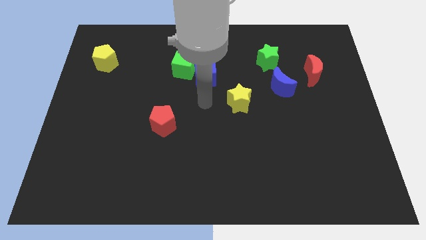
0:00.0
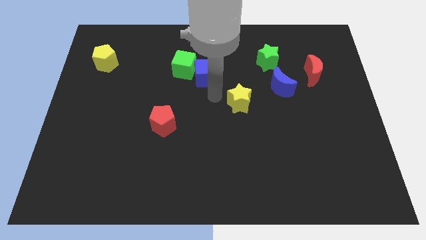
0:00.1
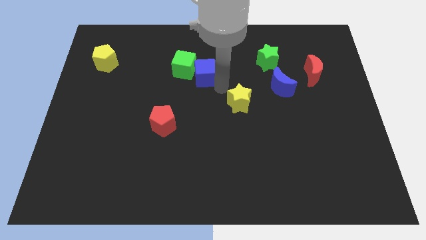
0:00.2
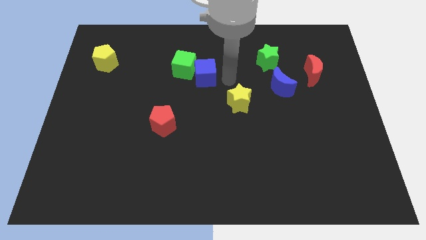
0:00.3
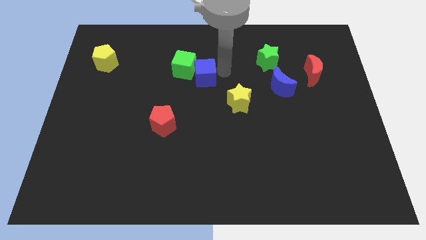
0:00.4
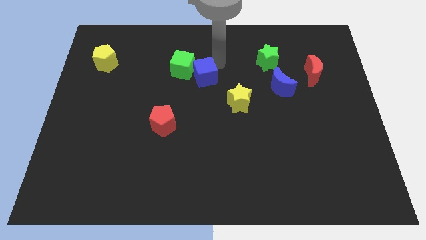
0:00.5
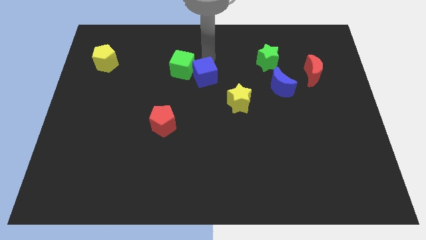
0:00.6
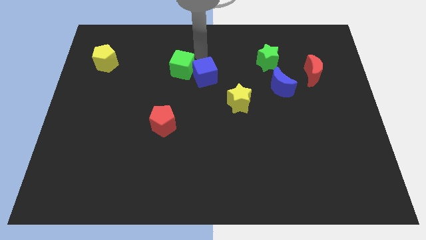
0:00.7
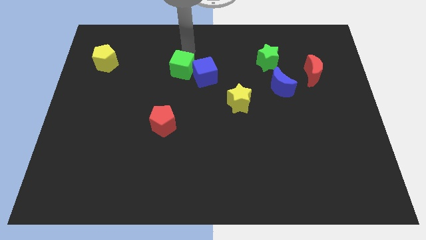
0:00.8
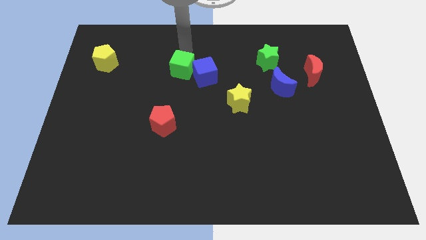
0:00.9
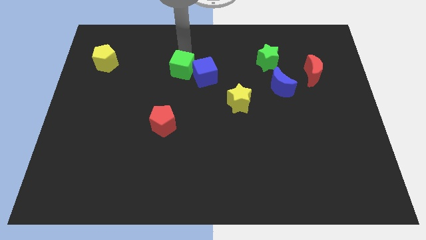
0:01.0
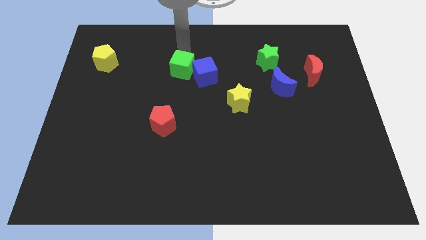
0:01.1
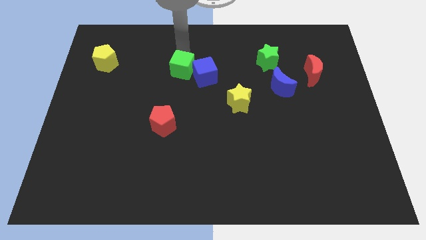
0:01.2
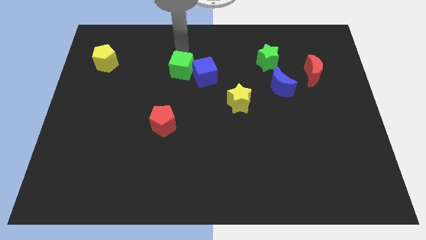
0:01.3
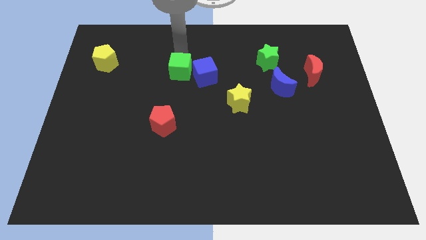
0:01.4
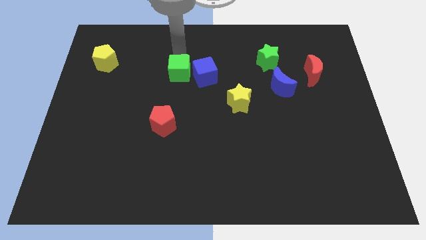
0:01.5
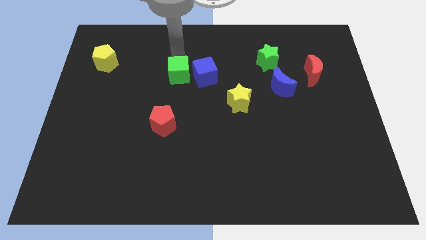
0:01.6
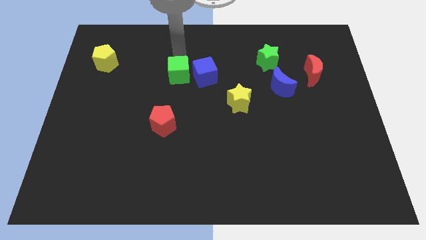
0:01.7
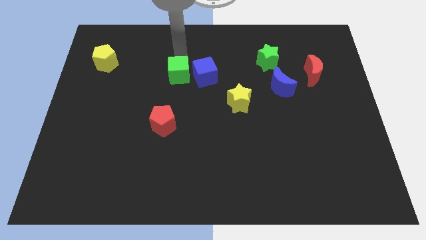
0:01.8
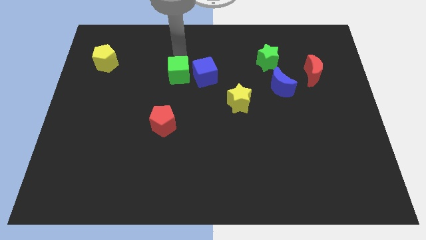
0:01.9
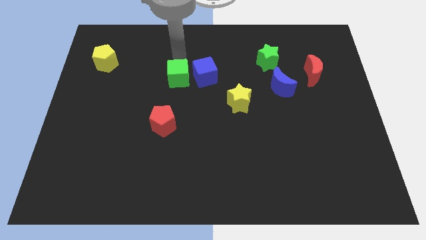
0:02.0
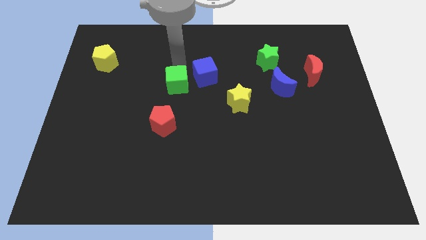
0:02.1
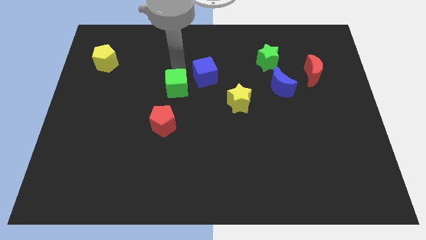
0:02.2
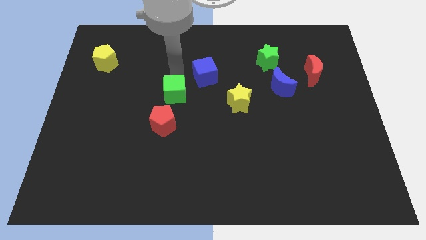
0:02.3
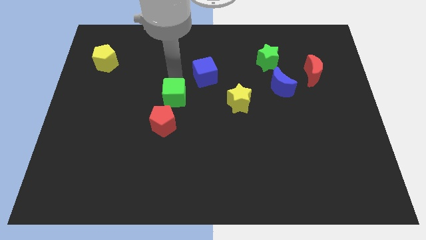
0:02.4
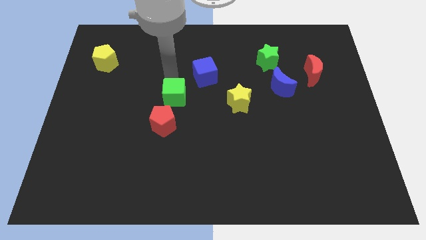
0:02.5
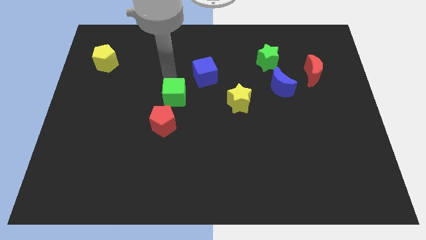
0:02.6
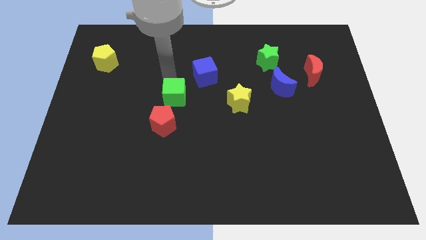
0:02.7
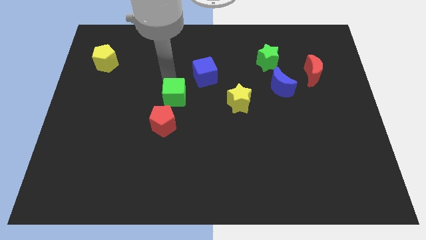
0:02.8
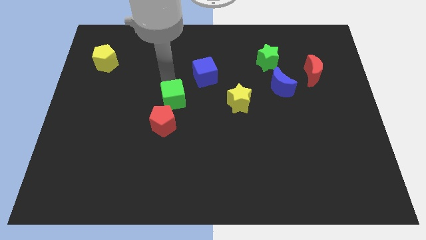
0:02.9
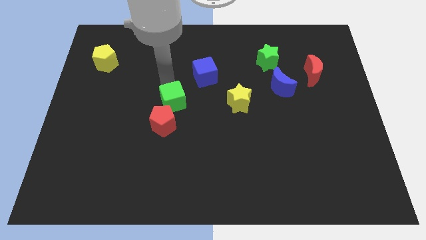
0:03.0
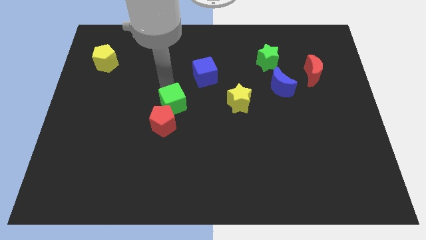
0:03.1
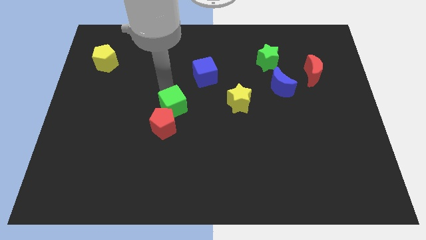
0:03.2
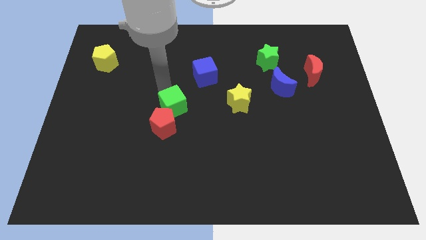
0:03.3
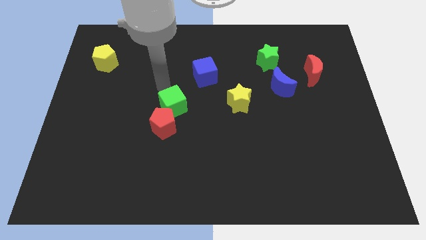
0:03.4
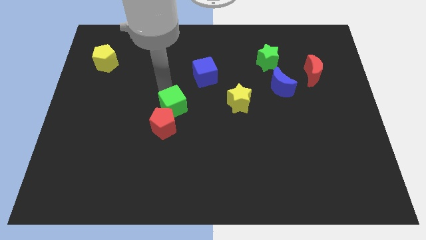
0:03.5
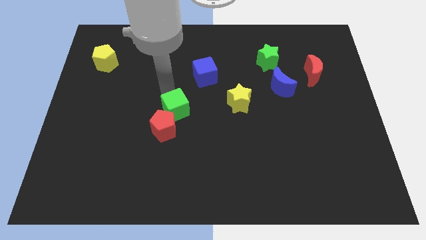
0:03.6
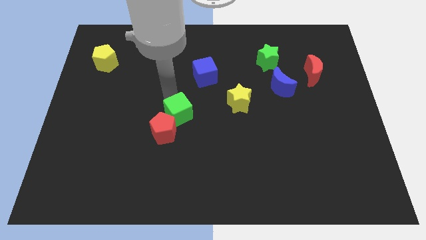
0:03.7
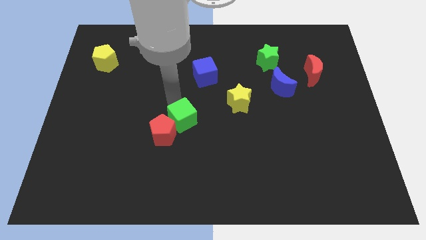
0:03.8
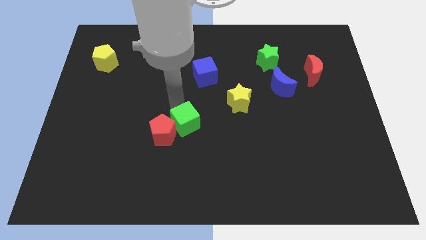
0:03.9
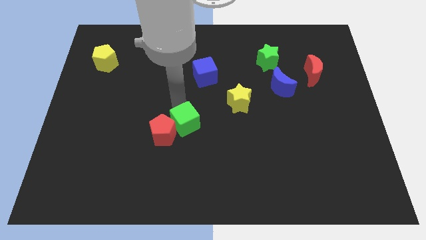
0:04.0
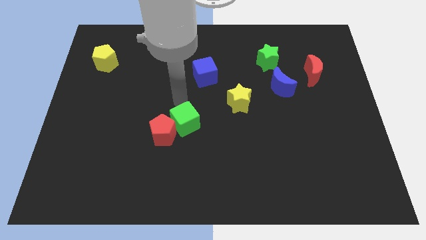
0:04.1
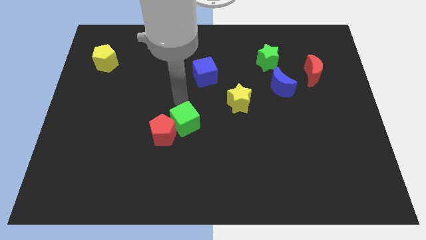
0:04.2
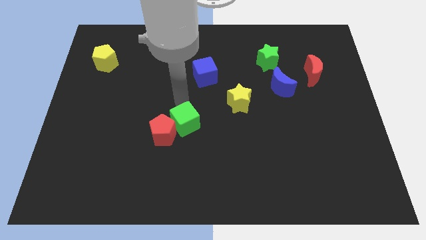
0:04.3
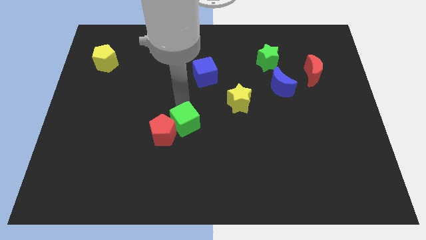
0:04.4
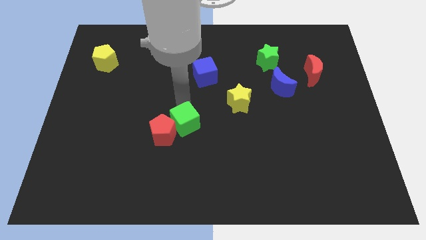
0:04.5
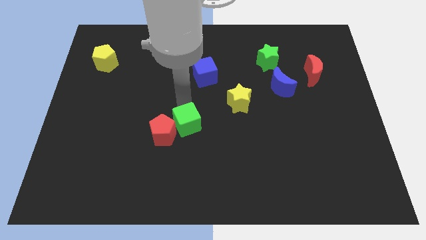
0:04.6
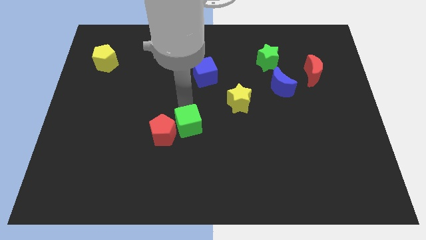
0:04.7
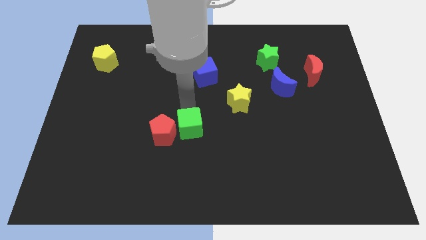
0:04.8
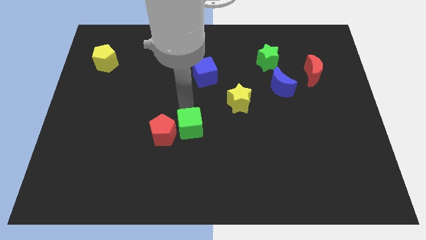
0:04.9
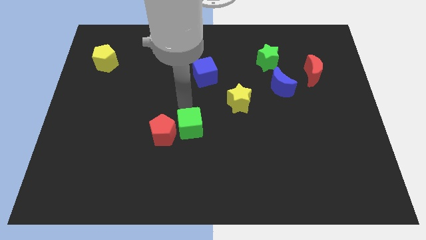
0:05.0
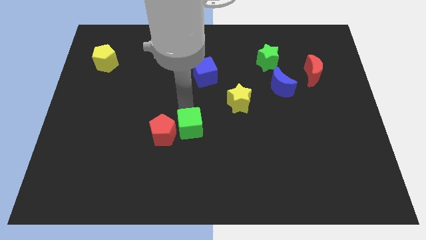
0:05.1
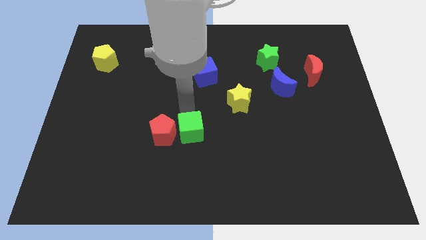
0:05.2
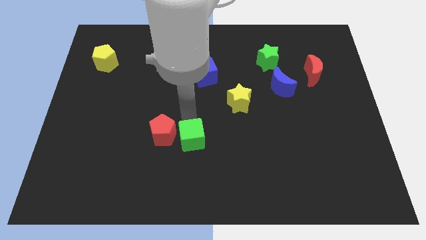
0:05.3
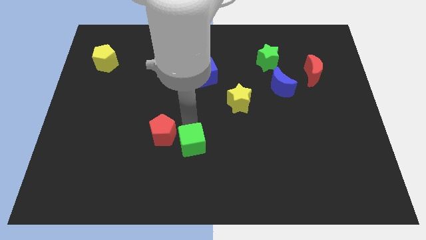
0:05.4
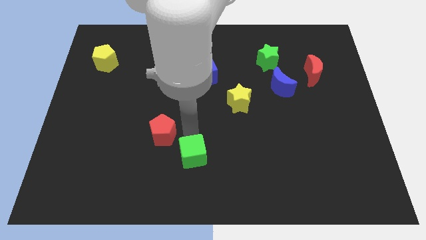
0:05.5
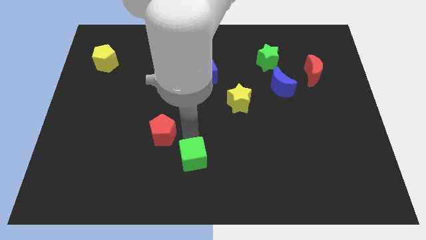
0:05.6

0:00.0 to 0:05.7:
push the green cube to the bottom side

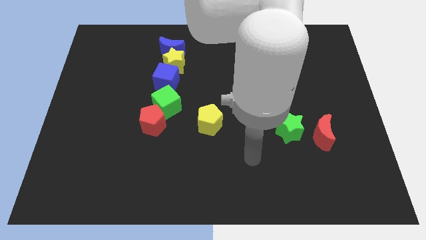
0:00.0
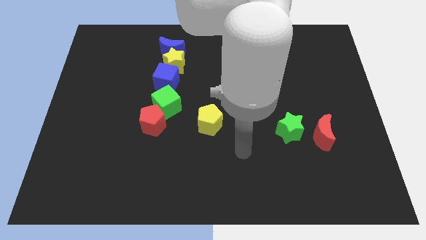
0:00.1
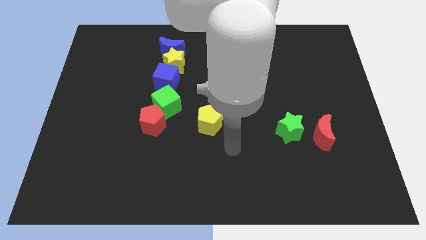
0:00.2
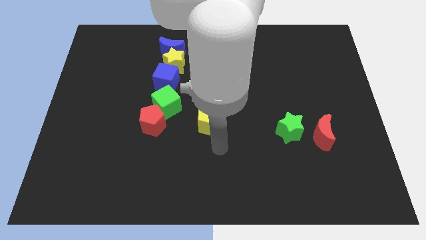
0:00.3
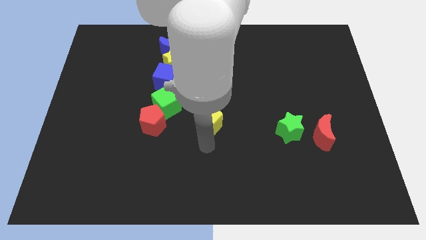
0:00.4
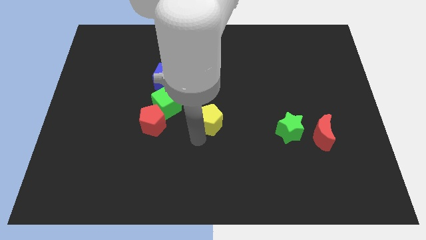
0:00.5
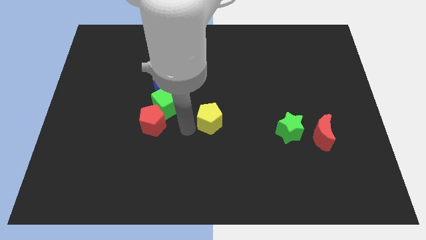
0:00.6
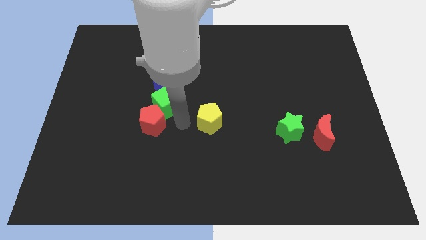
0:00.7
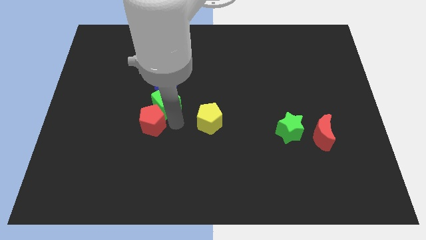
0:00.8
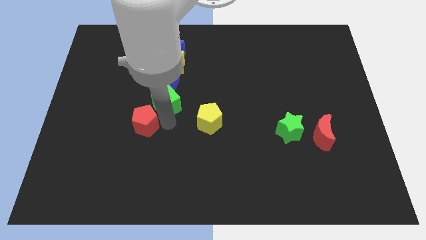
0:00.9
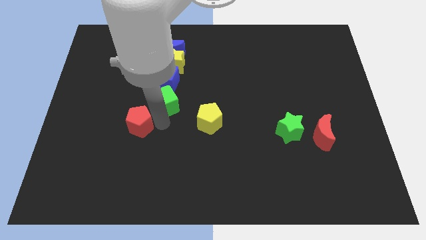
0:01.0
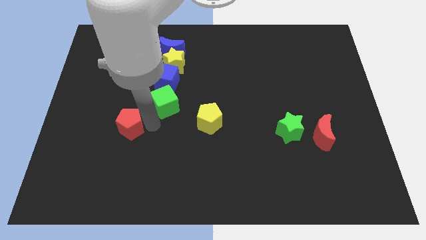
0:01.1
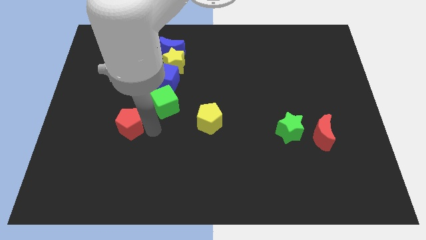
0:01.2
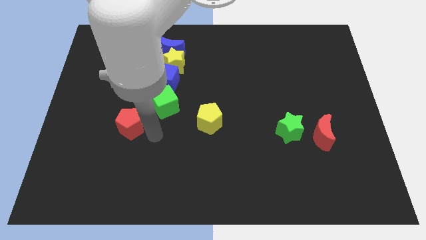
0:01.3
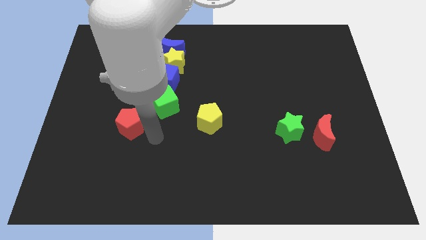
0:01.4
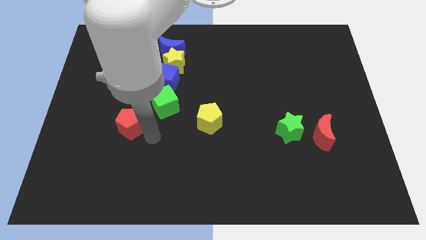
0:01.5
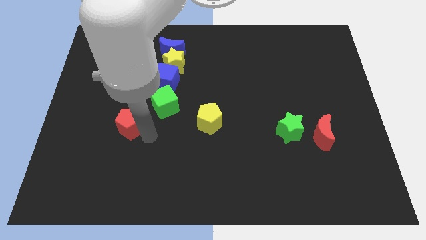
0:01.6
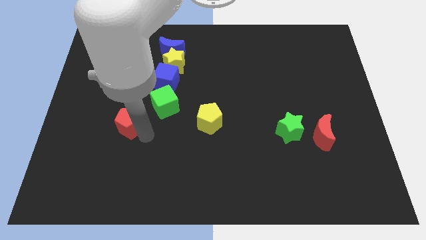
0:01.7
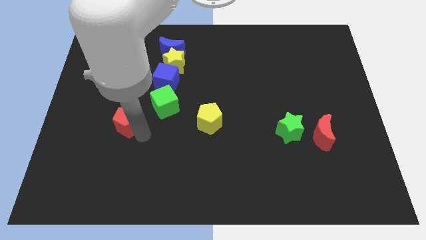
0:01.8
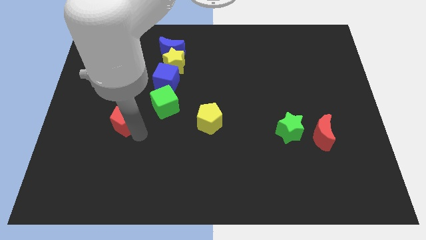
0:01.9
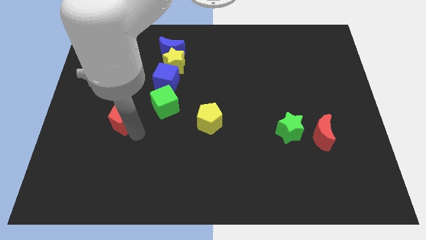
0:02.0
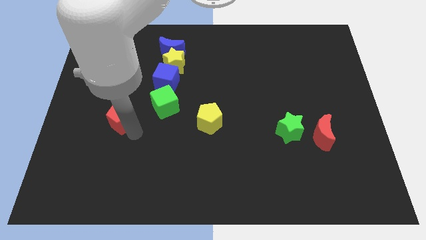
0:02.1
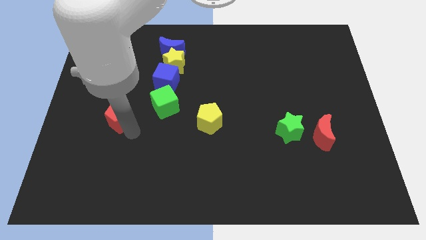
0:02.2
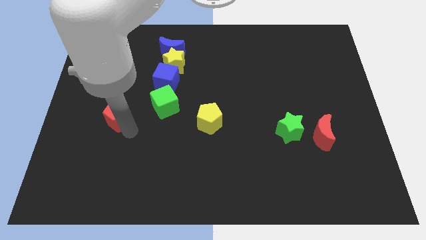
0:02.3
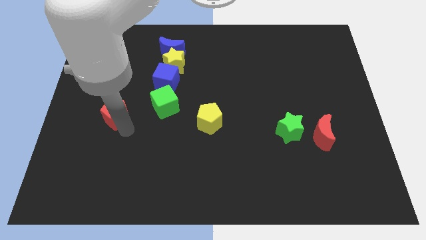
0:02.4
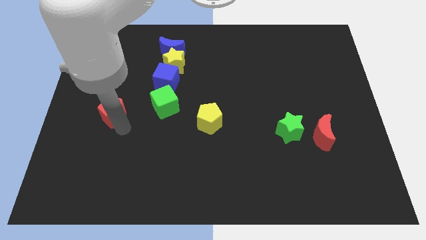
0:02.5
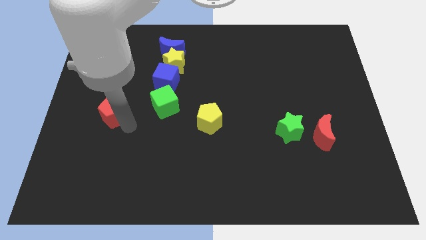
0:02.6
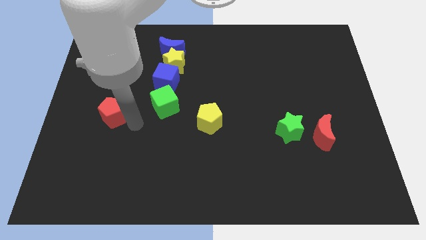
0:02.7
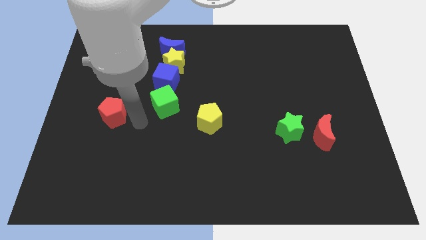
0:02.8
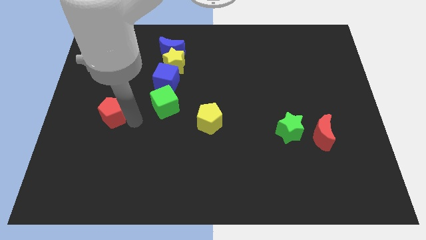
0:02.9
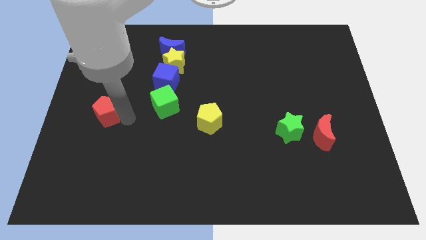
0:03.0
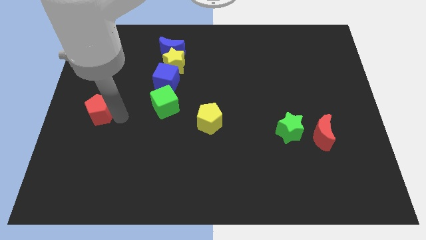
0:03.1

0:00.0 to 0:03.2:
put the red pentagon to the left side of the board
